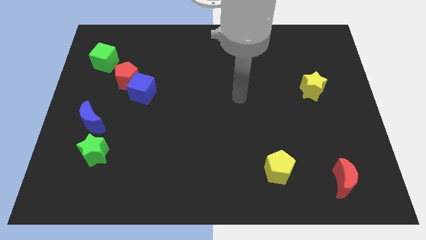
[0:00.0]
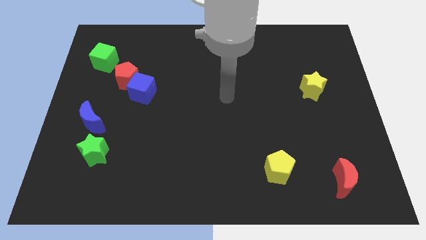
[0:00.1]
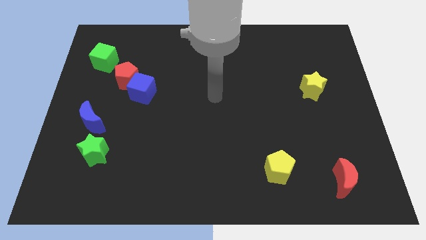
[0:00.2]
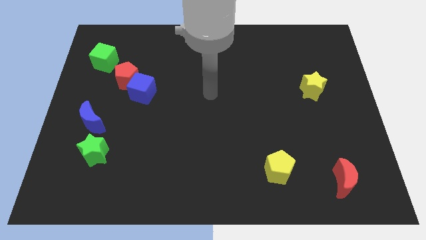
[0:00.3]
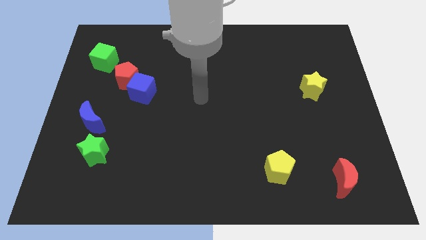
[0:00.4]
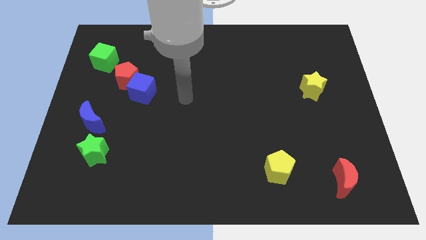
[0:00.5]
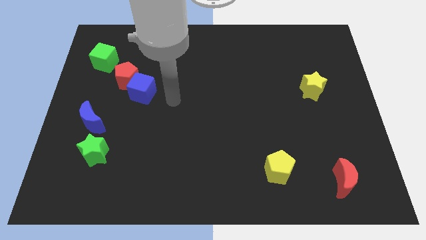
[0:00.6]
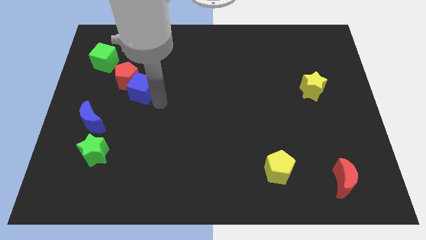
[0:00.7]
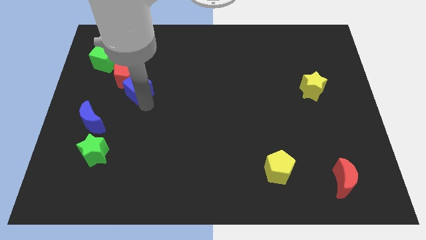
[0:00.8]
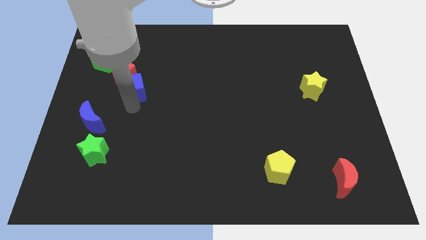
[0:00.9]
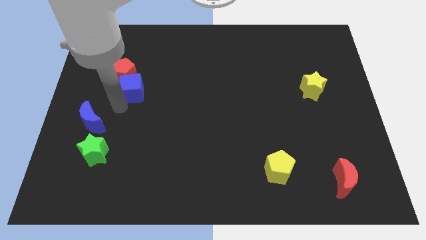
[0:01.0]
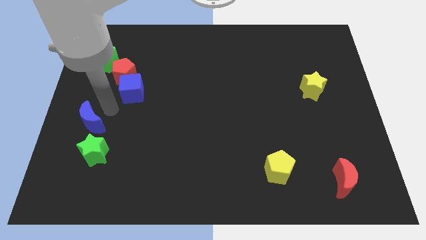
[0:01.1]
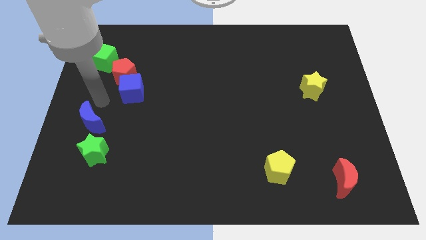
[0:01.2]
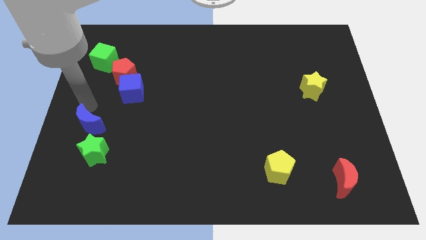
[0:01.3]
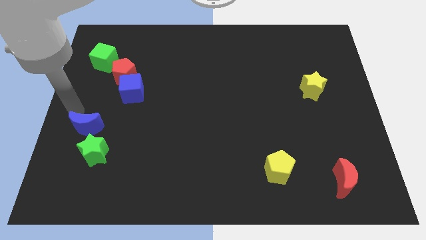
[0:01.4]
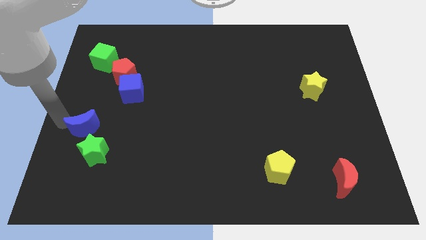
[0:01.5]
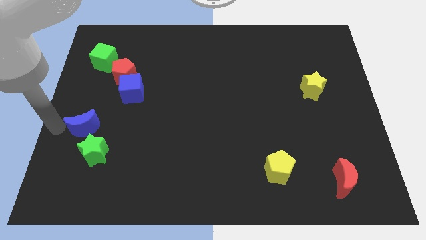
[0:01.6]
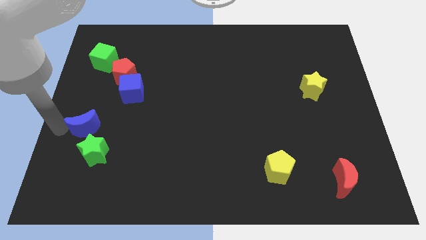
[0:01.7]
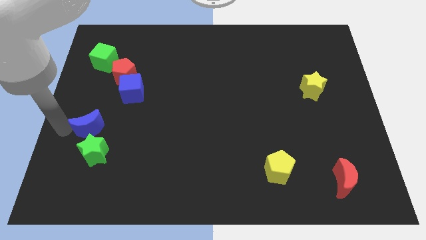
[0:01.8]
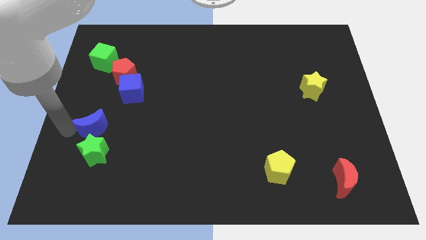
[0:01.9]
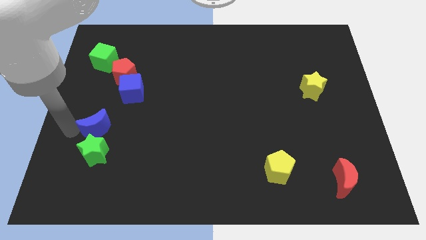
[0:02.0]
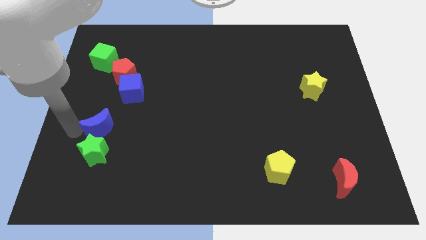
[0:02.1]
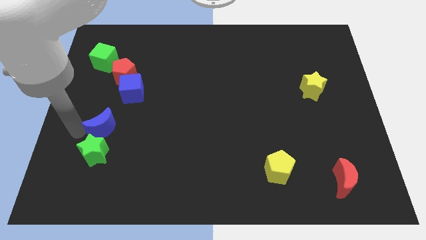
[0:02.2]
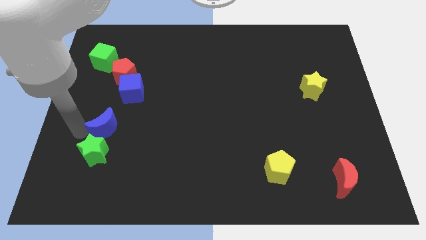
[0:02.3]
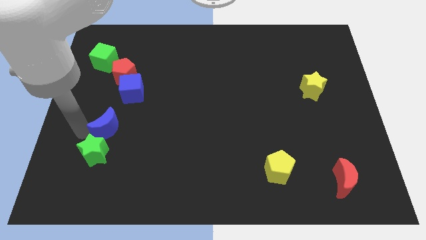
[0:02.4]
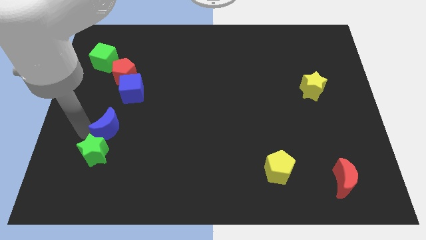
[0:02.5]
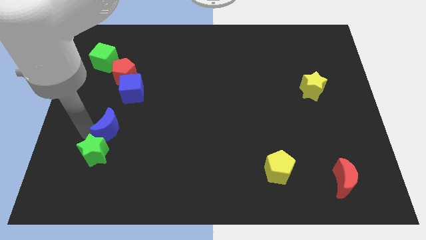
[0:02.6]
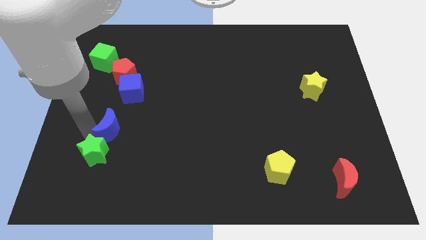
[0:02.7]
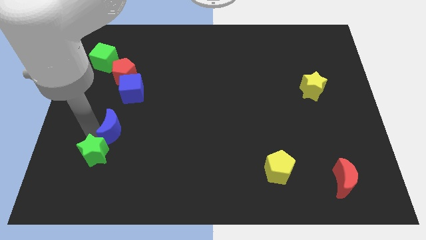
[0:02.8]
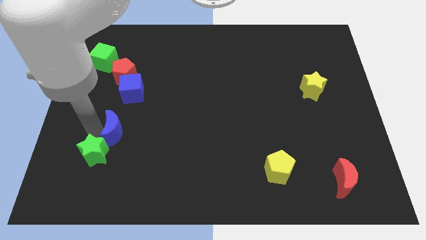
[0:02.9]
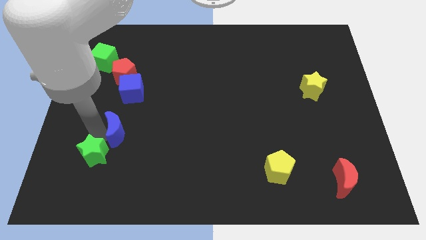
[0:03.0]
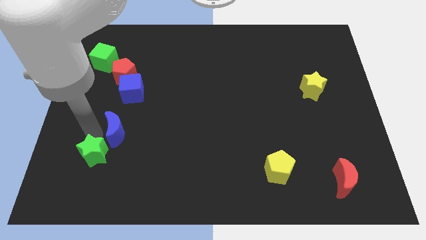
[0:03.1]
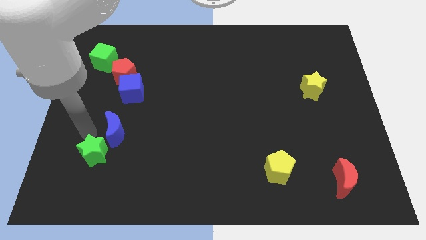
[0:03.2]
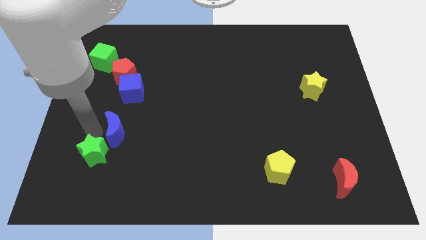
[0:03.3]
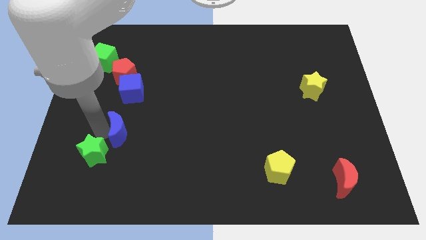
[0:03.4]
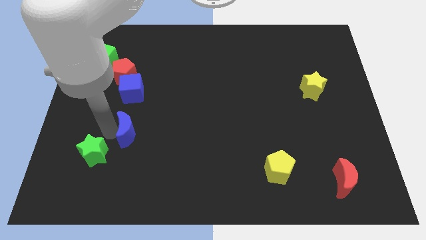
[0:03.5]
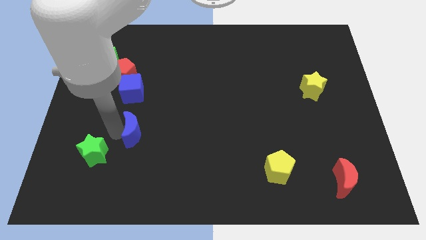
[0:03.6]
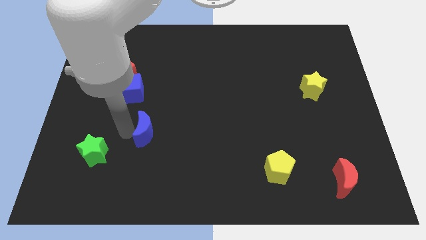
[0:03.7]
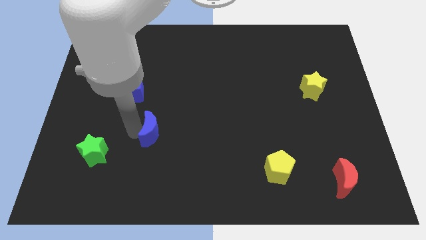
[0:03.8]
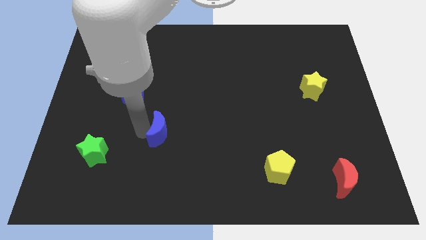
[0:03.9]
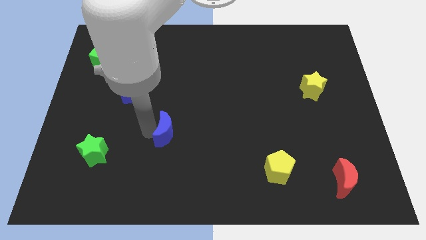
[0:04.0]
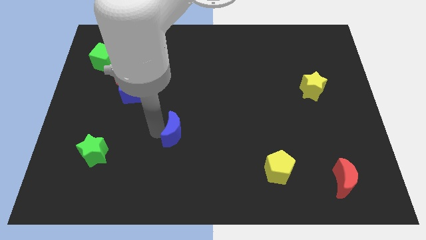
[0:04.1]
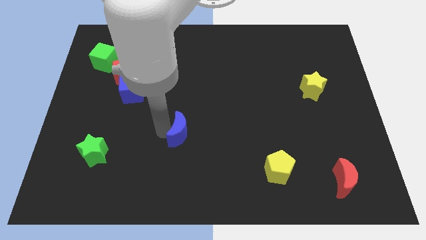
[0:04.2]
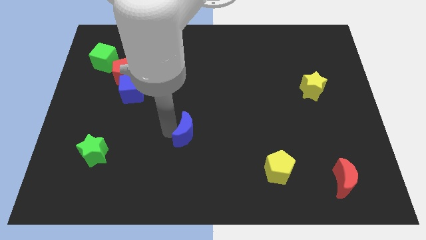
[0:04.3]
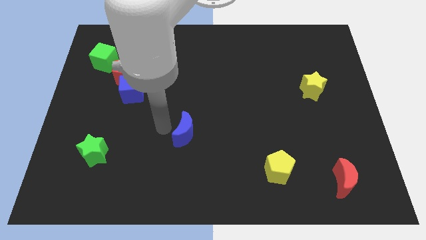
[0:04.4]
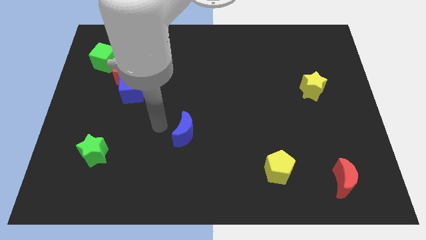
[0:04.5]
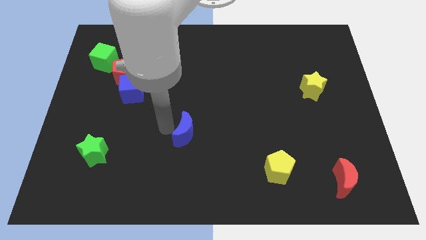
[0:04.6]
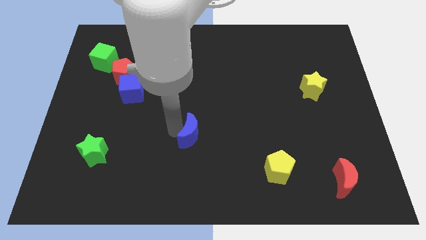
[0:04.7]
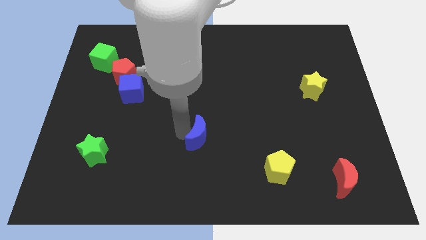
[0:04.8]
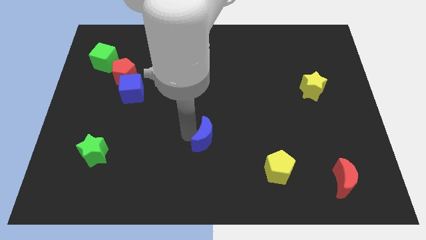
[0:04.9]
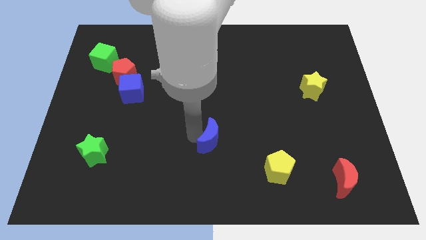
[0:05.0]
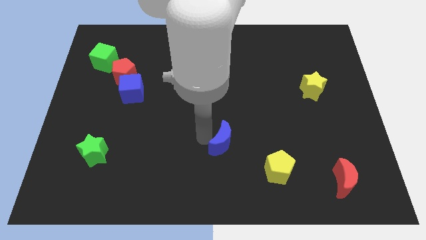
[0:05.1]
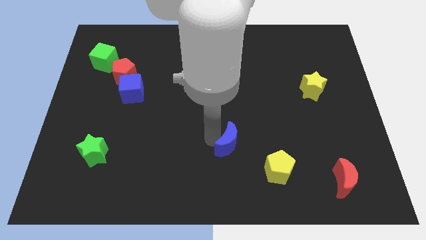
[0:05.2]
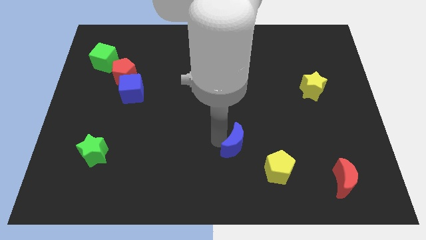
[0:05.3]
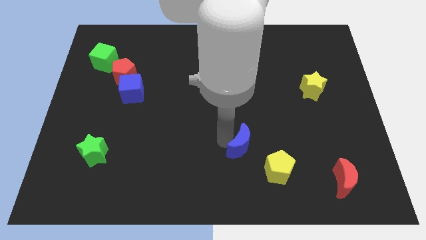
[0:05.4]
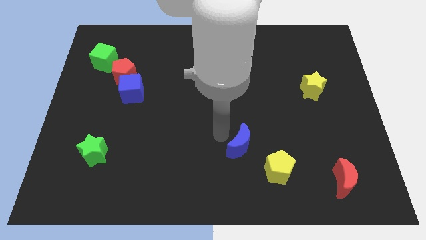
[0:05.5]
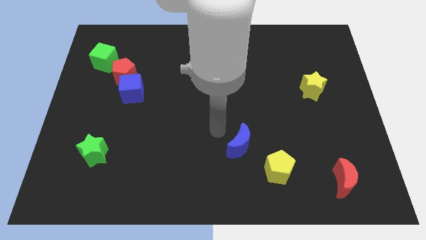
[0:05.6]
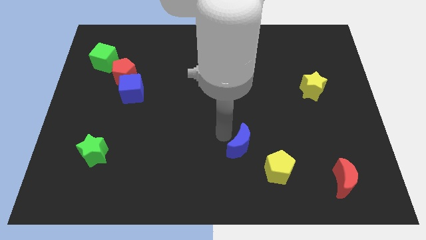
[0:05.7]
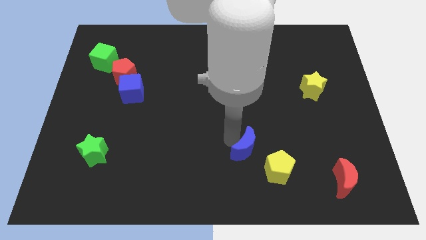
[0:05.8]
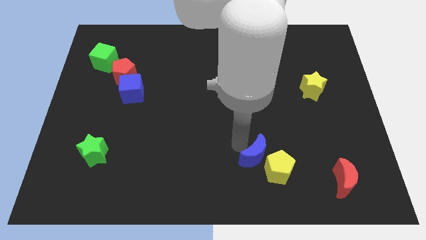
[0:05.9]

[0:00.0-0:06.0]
push the blue moon to the yellow pentagon

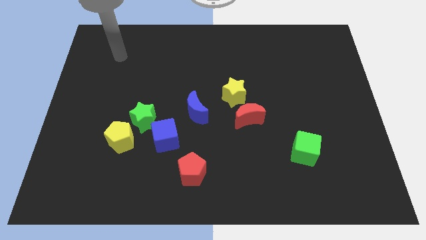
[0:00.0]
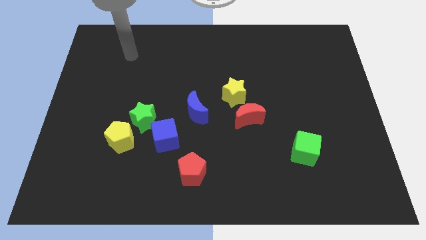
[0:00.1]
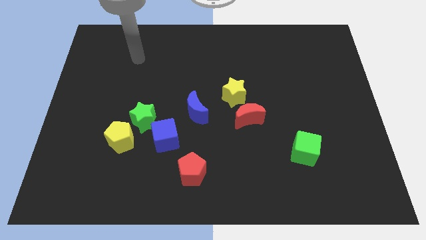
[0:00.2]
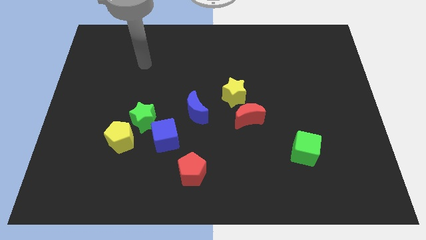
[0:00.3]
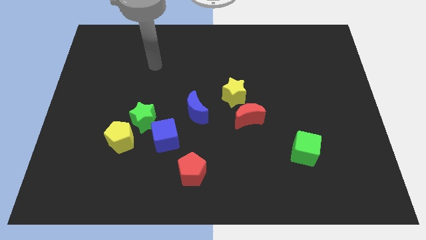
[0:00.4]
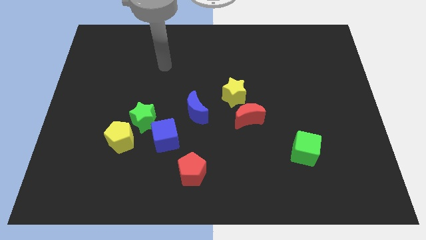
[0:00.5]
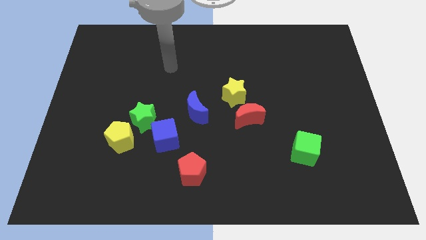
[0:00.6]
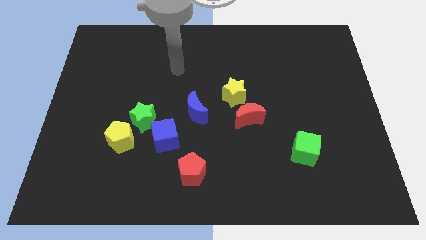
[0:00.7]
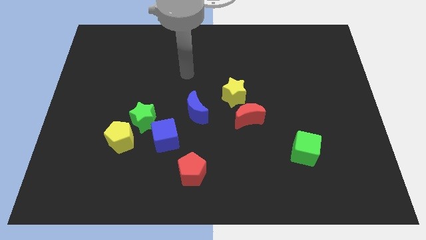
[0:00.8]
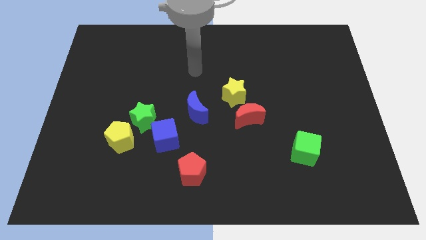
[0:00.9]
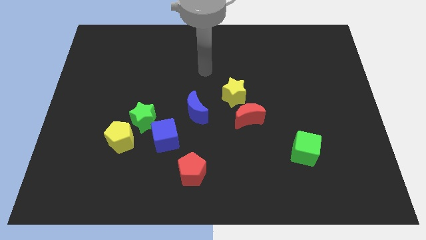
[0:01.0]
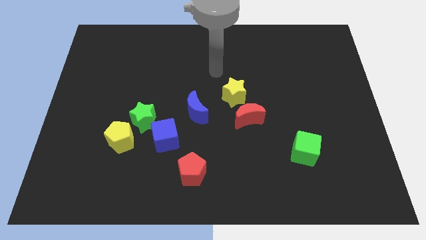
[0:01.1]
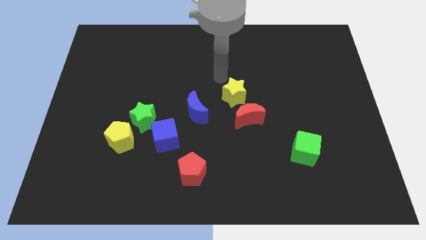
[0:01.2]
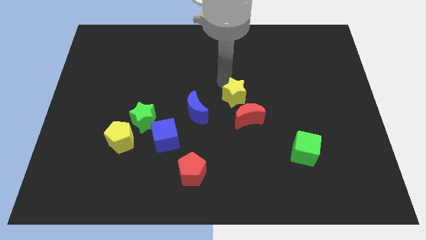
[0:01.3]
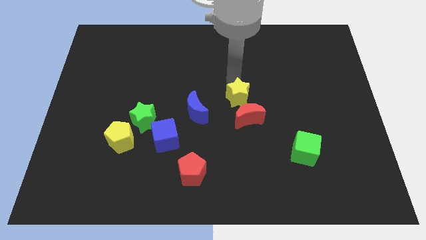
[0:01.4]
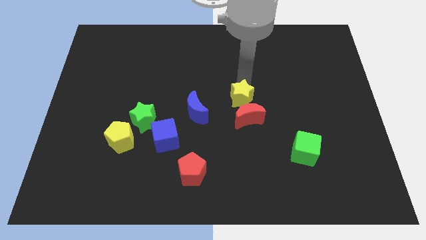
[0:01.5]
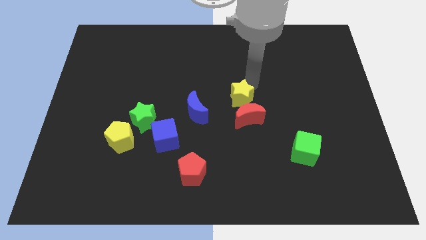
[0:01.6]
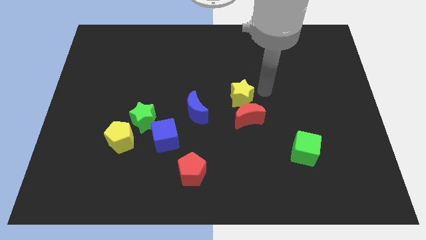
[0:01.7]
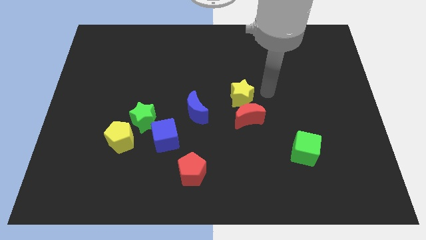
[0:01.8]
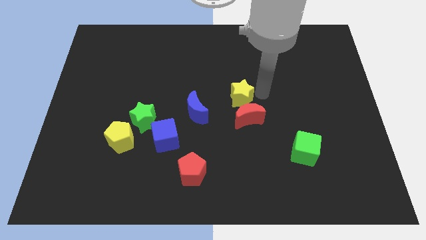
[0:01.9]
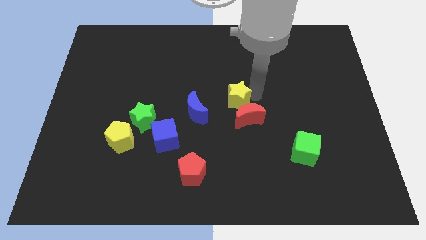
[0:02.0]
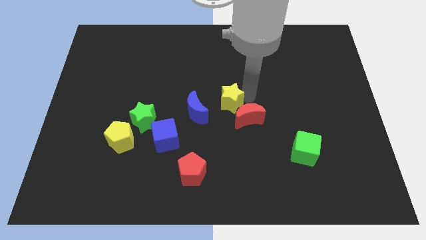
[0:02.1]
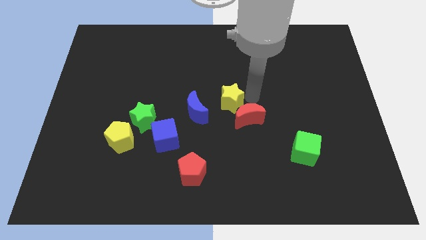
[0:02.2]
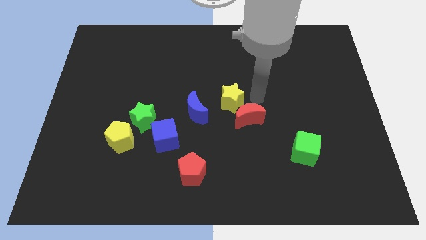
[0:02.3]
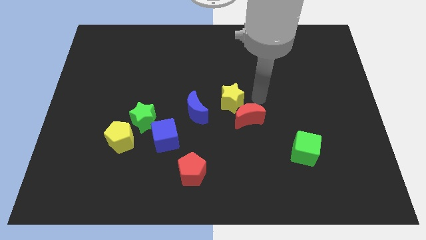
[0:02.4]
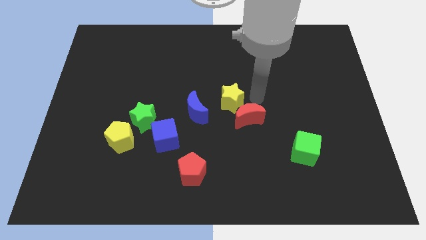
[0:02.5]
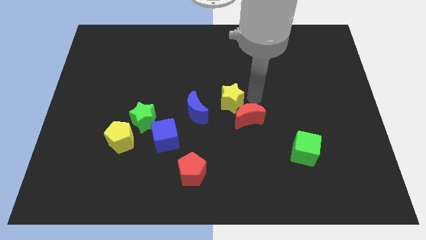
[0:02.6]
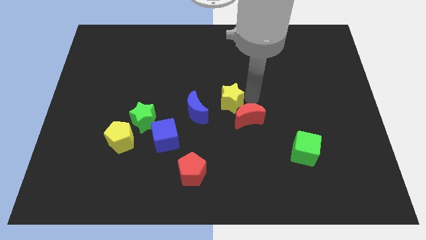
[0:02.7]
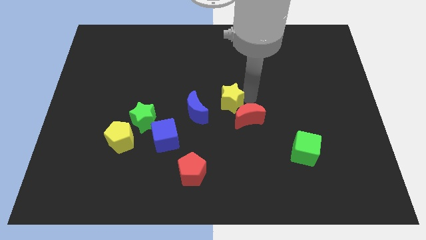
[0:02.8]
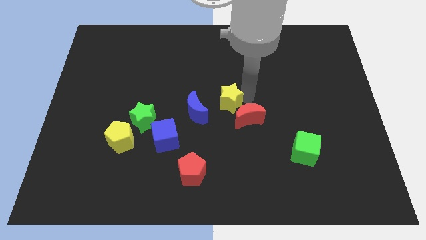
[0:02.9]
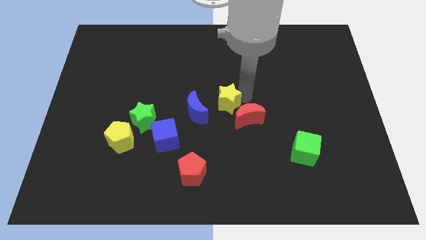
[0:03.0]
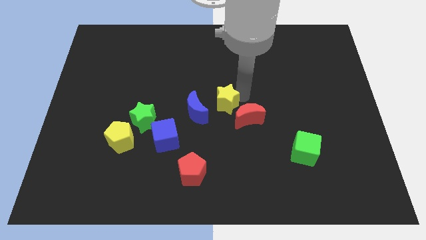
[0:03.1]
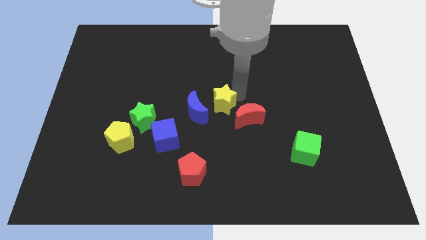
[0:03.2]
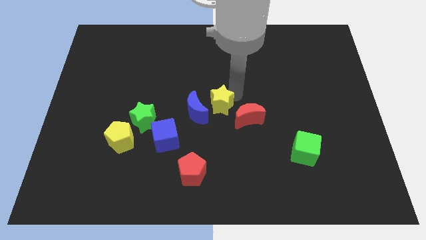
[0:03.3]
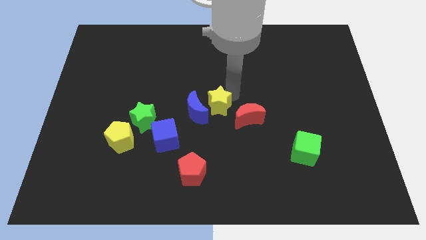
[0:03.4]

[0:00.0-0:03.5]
move the yellow star close to the blue moon
